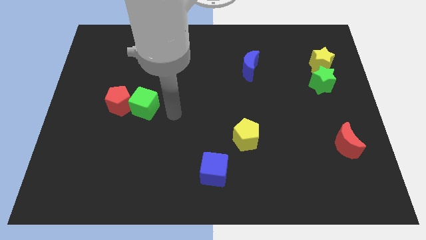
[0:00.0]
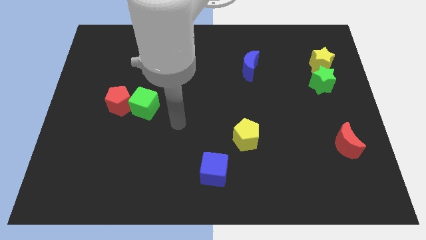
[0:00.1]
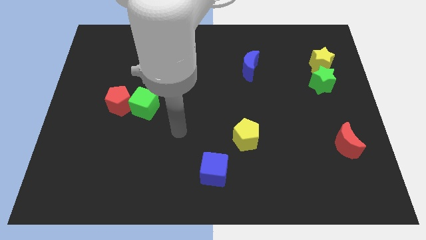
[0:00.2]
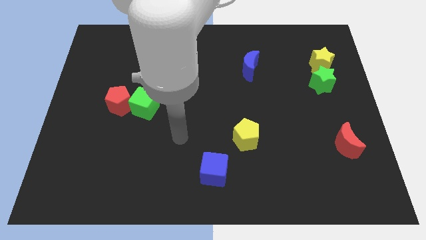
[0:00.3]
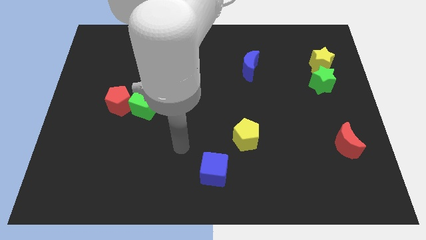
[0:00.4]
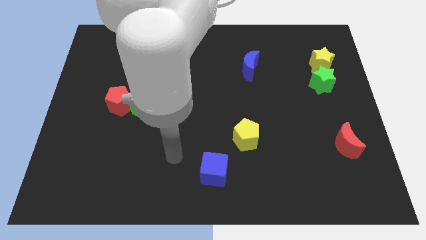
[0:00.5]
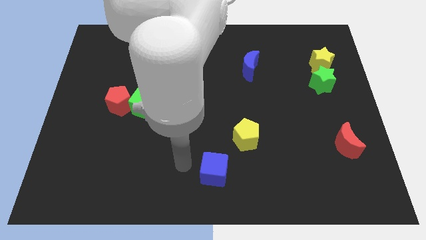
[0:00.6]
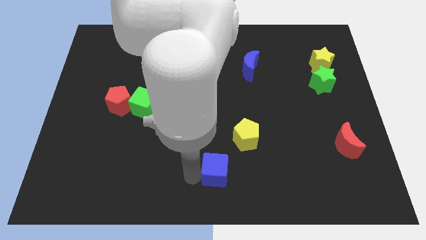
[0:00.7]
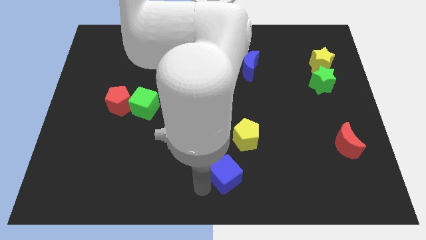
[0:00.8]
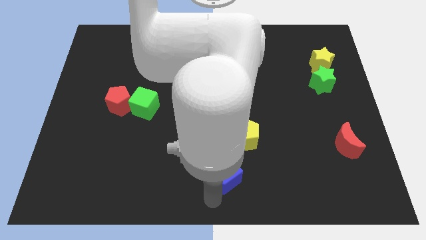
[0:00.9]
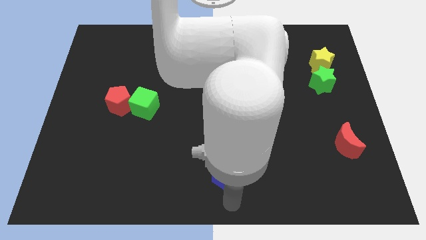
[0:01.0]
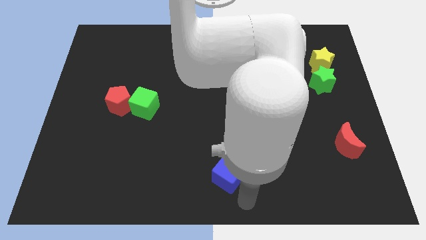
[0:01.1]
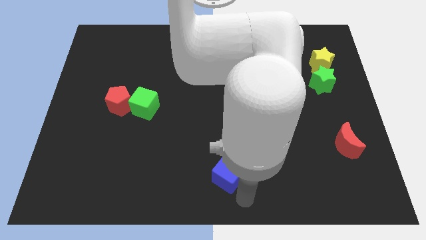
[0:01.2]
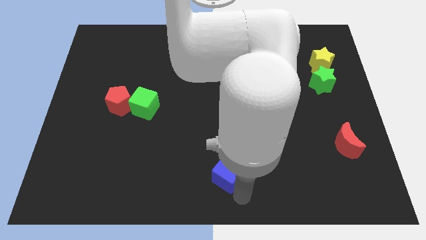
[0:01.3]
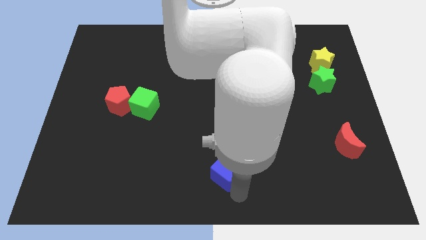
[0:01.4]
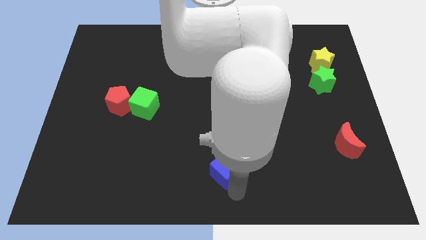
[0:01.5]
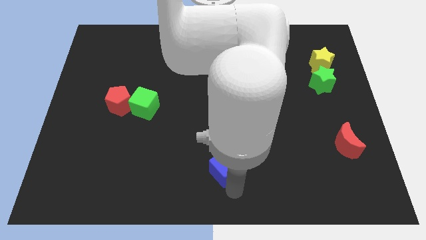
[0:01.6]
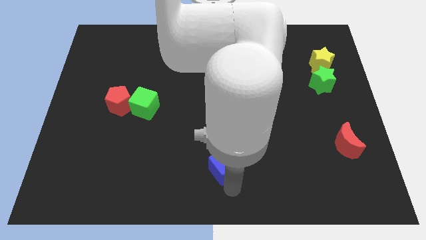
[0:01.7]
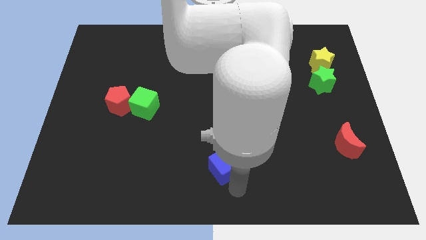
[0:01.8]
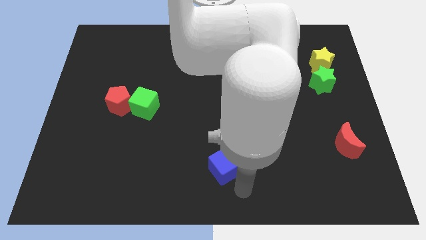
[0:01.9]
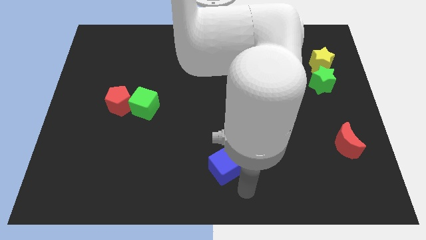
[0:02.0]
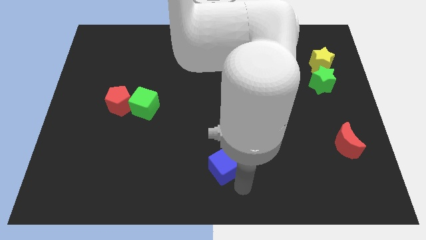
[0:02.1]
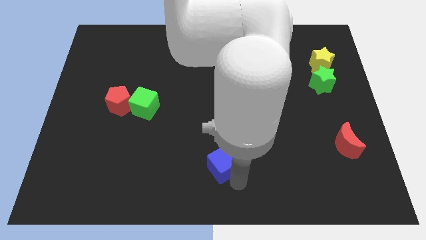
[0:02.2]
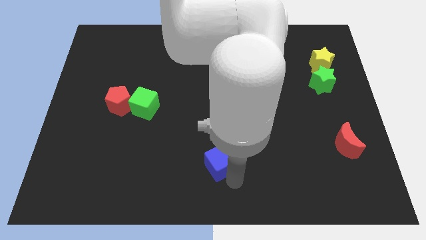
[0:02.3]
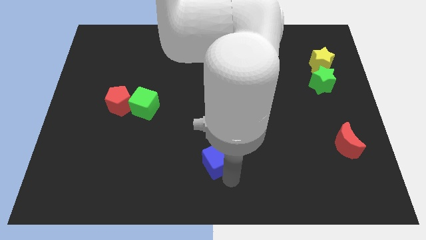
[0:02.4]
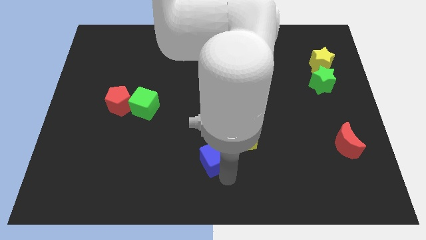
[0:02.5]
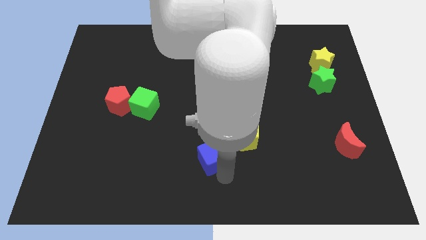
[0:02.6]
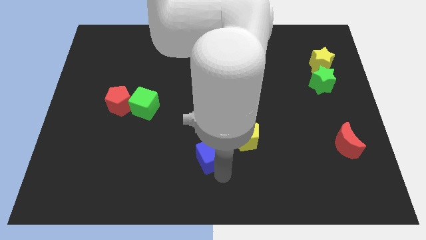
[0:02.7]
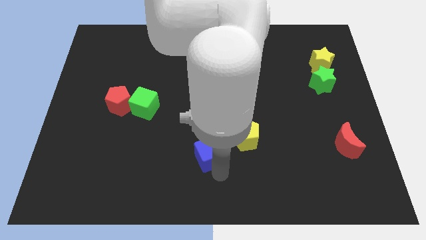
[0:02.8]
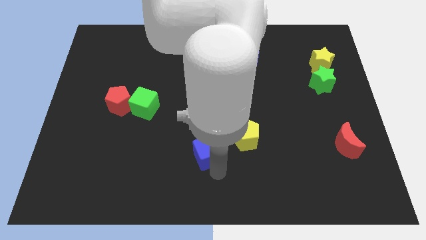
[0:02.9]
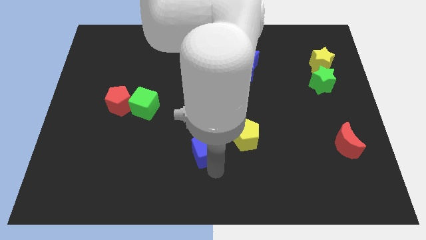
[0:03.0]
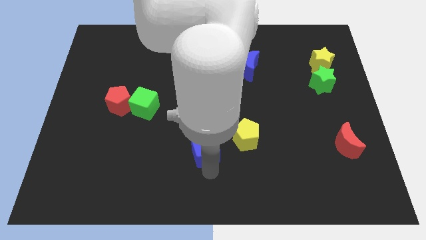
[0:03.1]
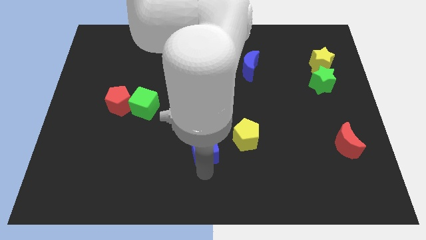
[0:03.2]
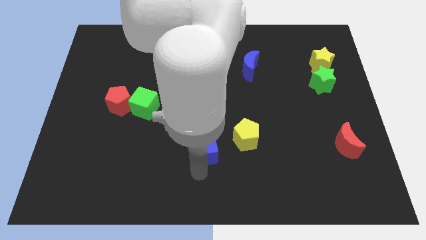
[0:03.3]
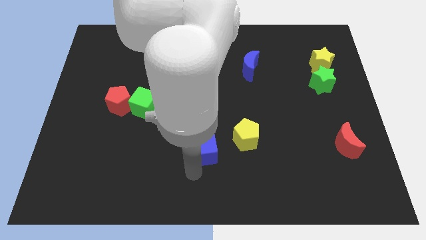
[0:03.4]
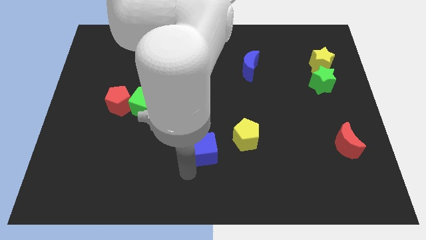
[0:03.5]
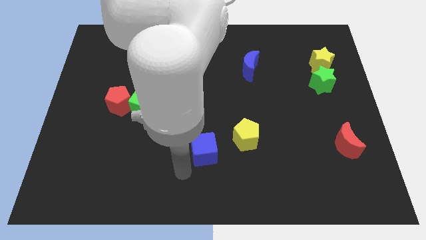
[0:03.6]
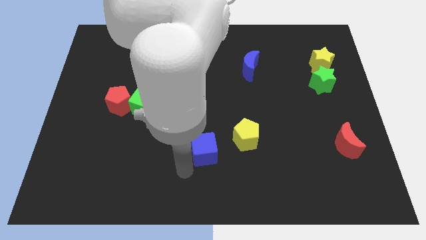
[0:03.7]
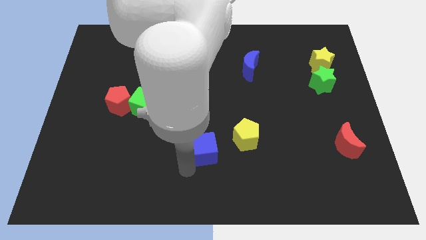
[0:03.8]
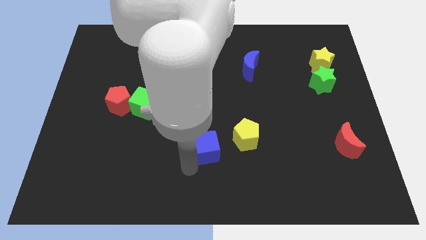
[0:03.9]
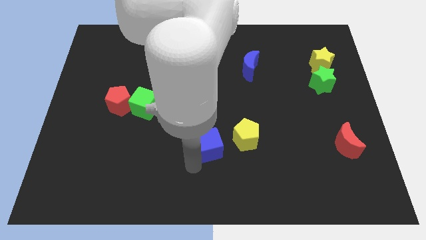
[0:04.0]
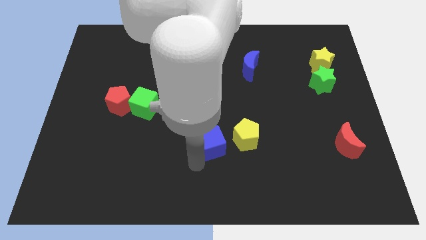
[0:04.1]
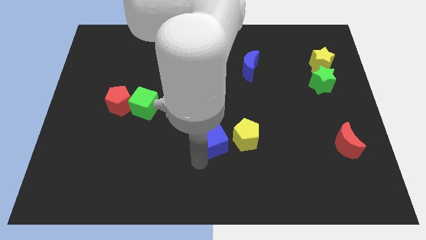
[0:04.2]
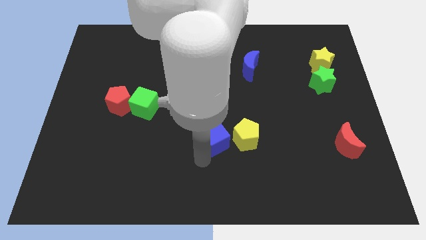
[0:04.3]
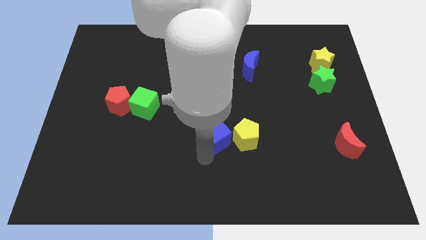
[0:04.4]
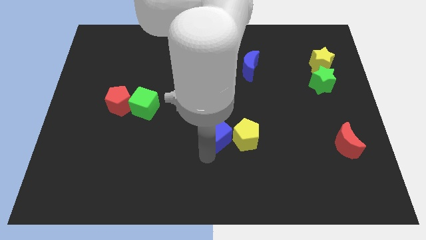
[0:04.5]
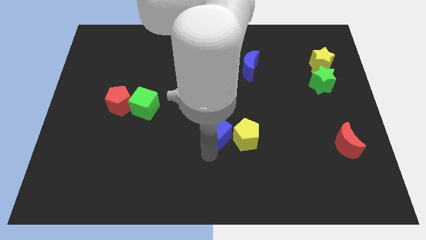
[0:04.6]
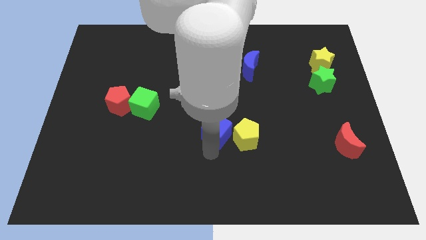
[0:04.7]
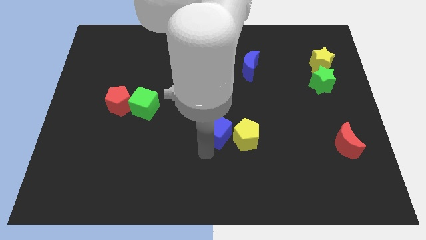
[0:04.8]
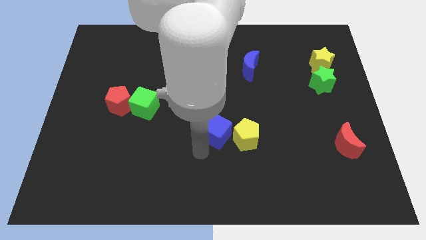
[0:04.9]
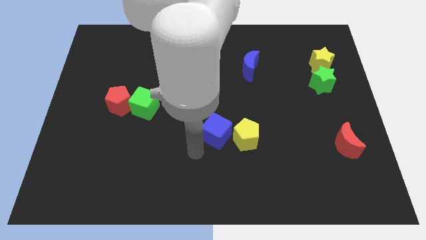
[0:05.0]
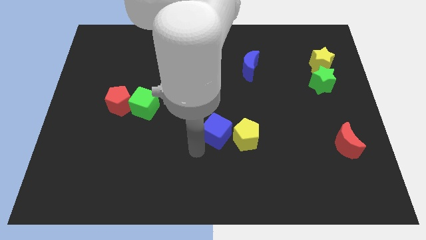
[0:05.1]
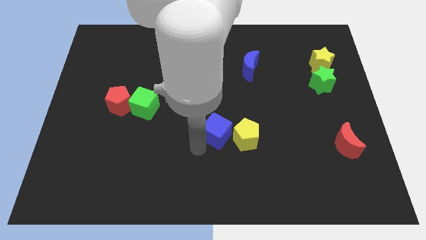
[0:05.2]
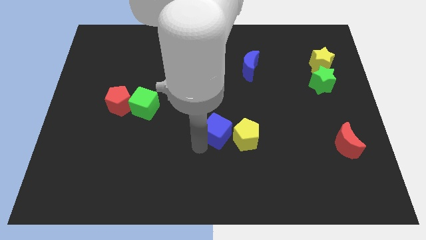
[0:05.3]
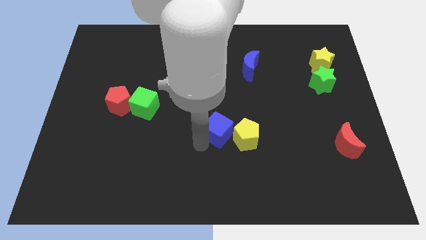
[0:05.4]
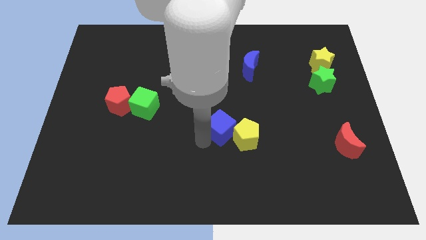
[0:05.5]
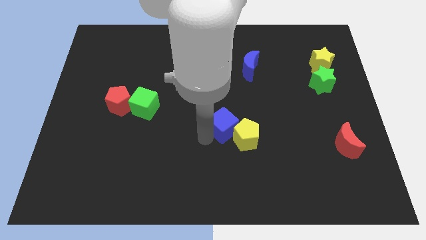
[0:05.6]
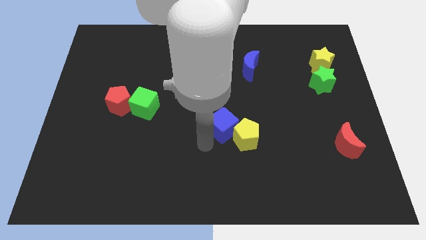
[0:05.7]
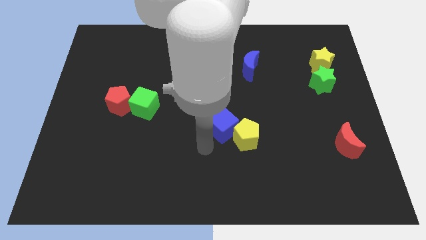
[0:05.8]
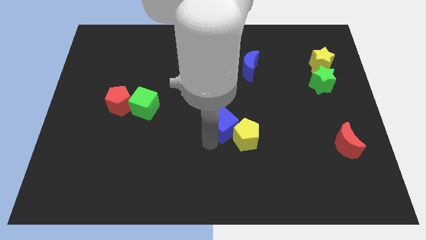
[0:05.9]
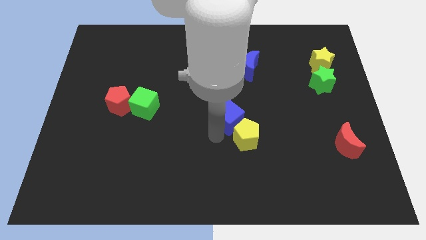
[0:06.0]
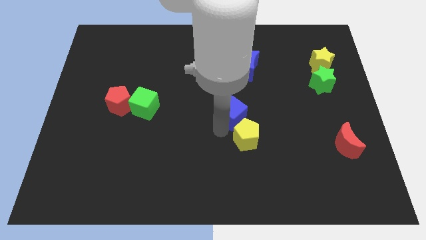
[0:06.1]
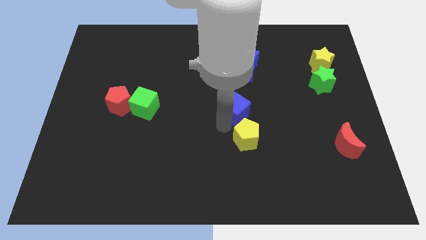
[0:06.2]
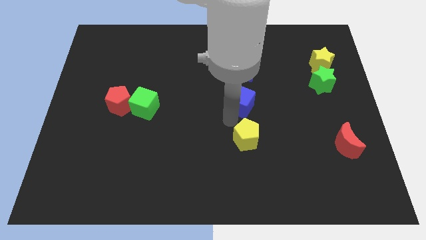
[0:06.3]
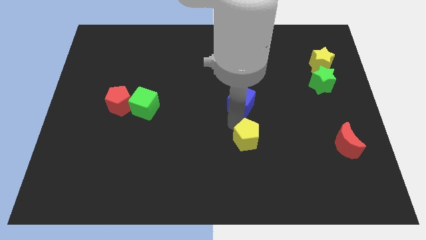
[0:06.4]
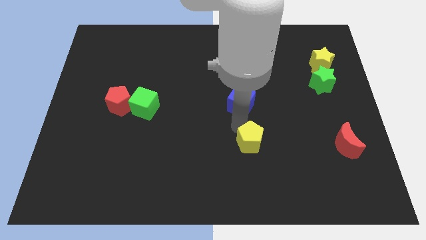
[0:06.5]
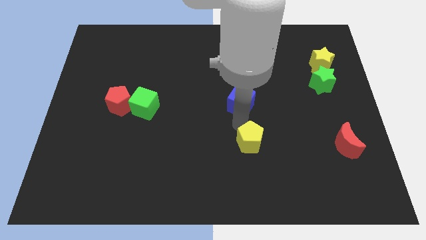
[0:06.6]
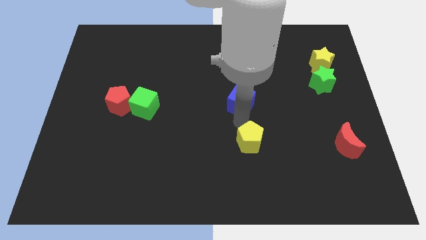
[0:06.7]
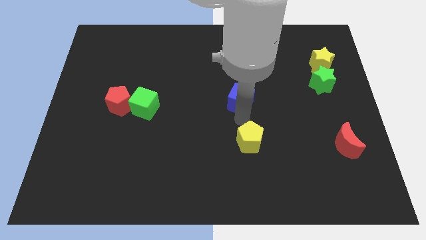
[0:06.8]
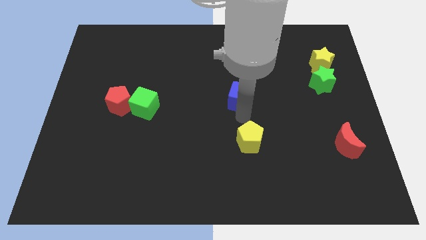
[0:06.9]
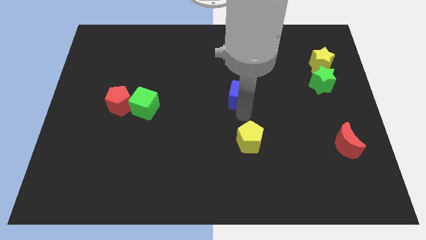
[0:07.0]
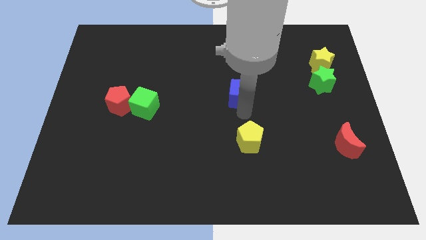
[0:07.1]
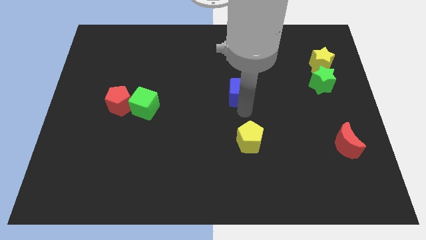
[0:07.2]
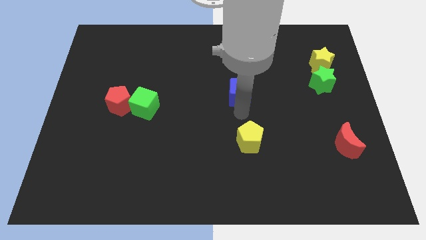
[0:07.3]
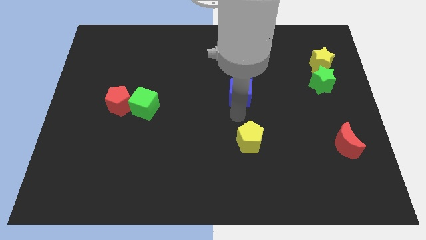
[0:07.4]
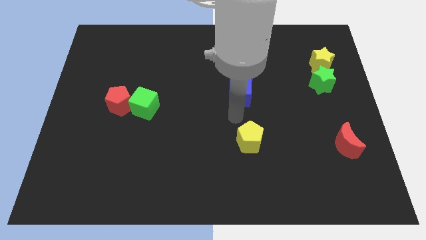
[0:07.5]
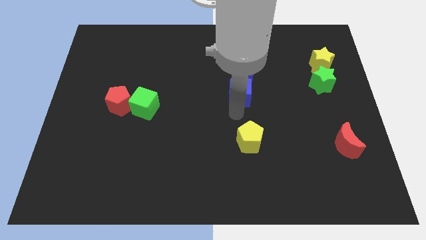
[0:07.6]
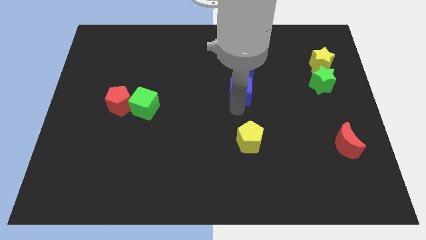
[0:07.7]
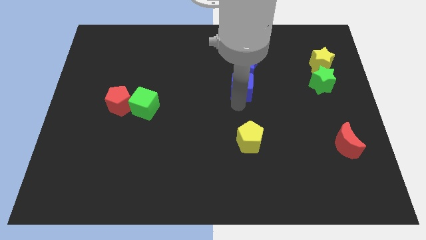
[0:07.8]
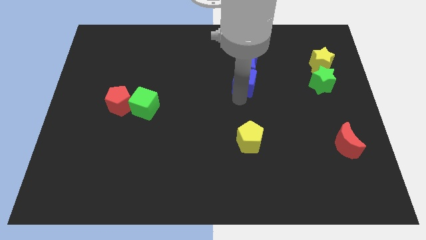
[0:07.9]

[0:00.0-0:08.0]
move the blue cube next to the blue moon

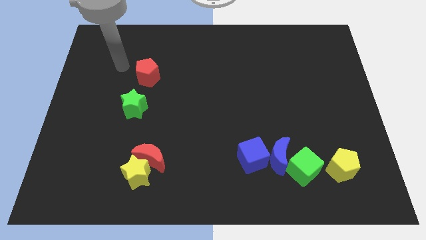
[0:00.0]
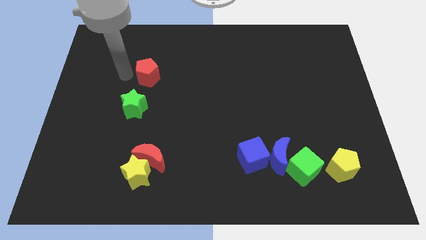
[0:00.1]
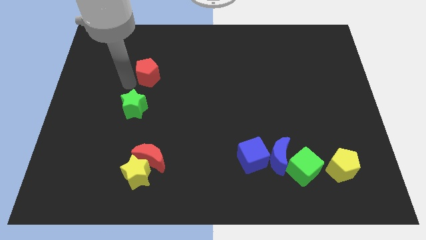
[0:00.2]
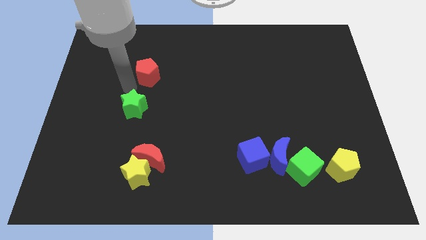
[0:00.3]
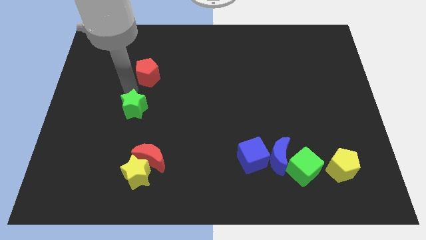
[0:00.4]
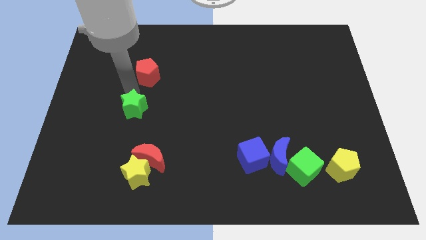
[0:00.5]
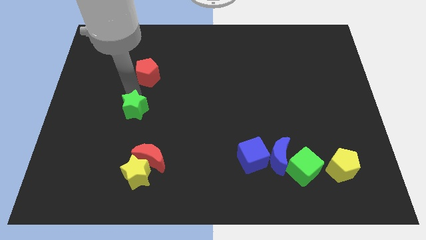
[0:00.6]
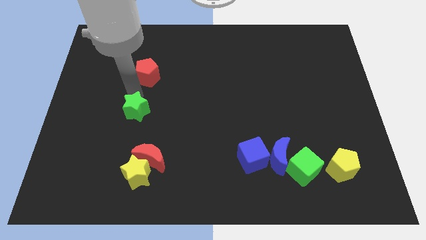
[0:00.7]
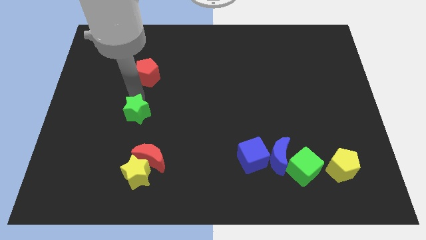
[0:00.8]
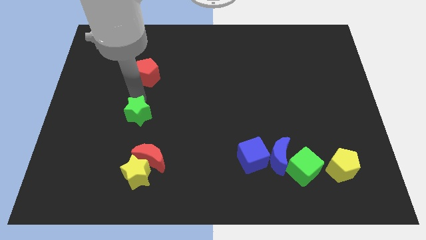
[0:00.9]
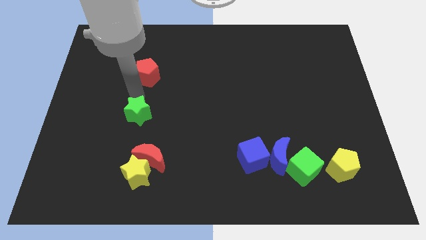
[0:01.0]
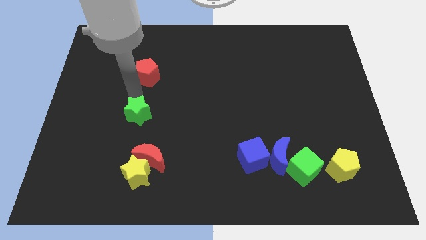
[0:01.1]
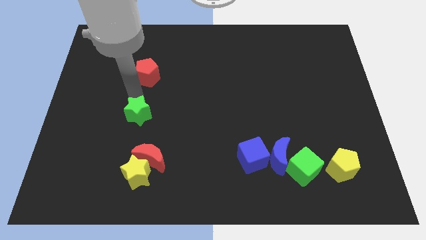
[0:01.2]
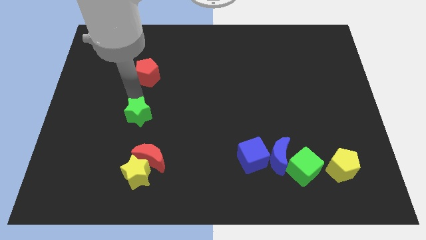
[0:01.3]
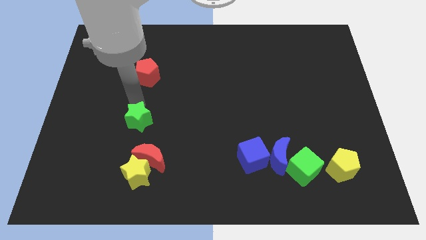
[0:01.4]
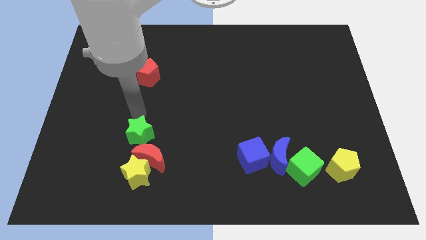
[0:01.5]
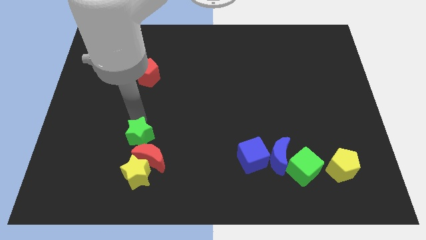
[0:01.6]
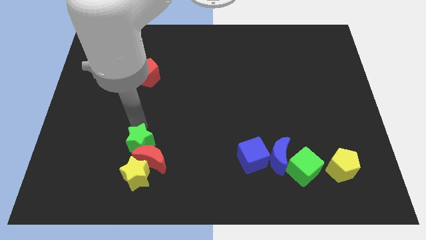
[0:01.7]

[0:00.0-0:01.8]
put the green star towards the red moon
